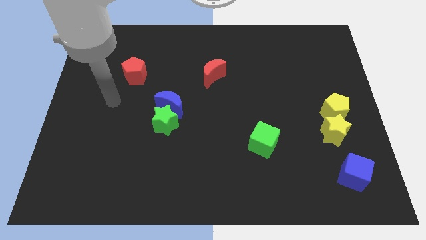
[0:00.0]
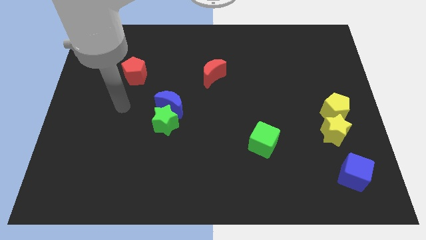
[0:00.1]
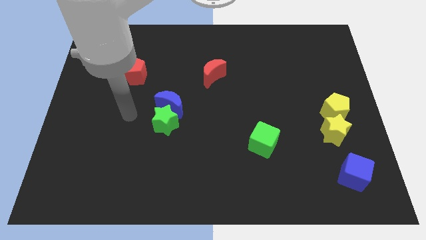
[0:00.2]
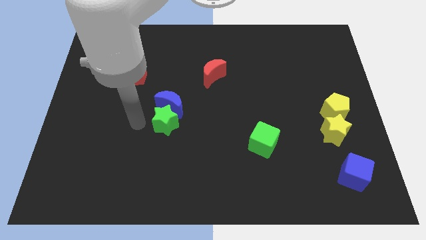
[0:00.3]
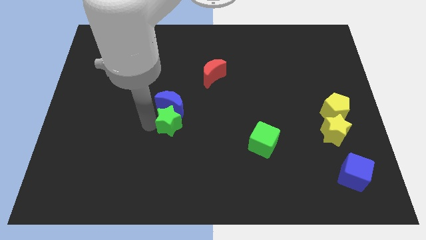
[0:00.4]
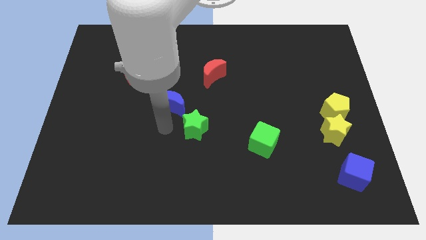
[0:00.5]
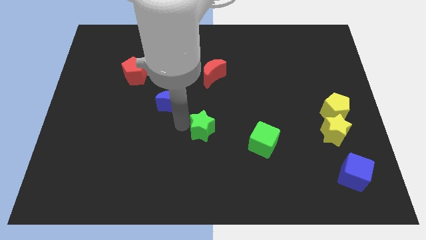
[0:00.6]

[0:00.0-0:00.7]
pull the blue moon apart from the green star

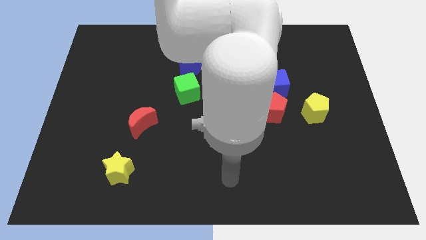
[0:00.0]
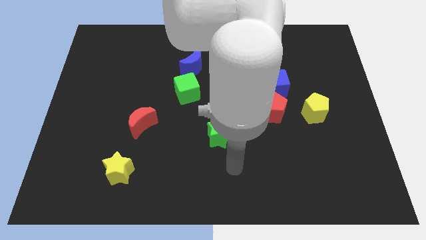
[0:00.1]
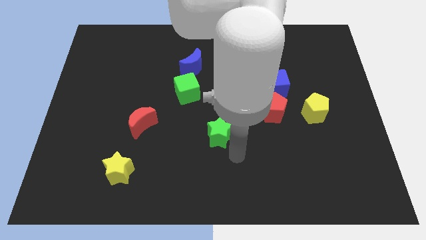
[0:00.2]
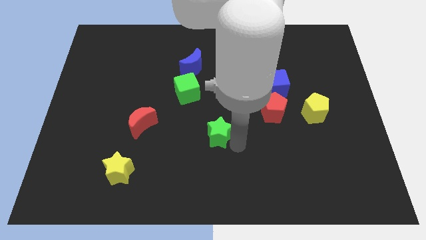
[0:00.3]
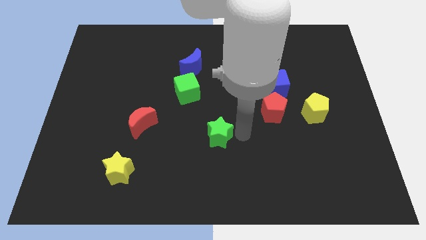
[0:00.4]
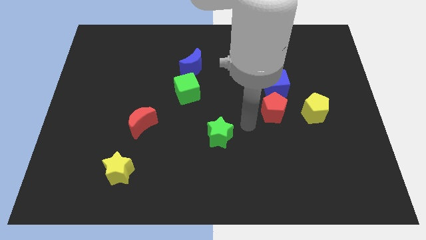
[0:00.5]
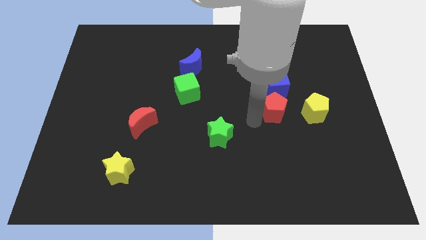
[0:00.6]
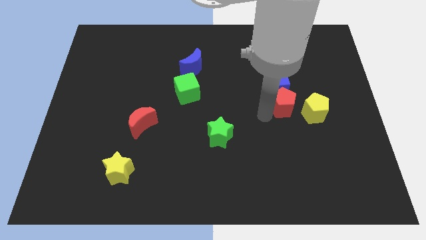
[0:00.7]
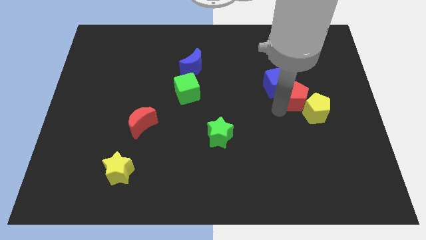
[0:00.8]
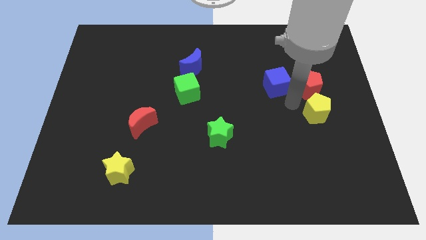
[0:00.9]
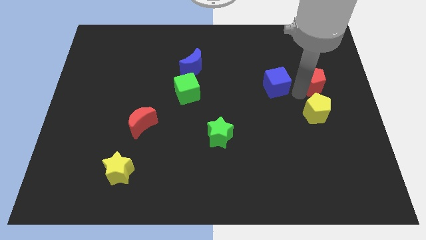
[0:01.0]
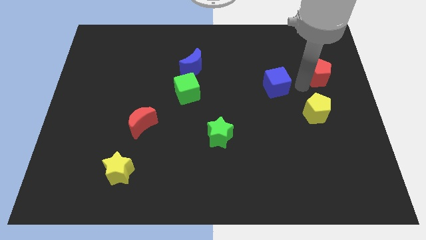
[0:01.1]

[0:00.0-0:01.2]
pull the blue cube apart from the red pentagon

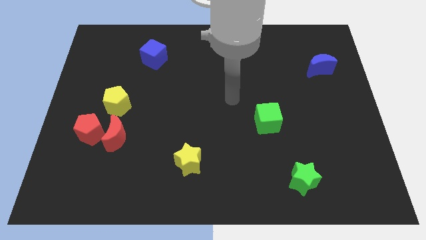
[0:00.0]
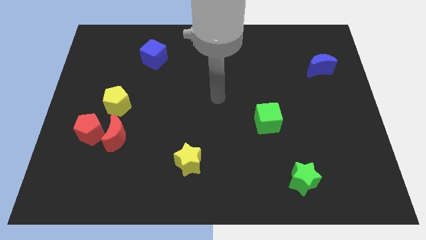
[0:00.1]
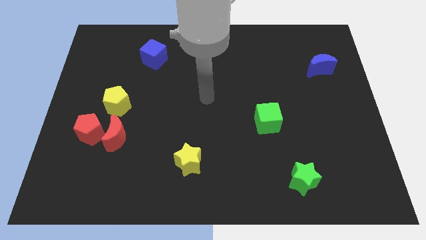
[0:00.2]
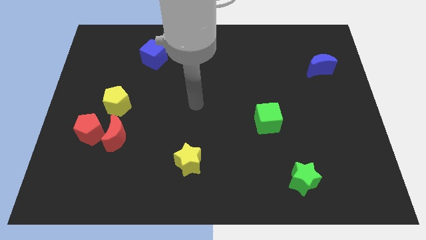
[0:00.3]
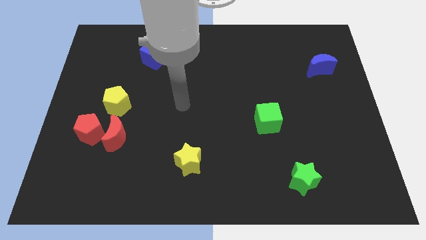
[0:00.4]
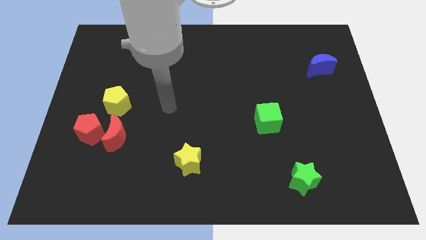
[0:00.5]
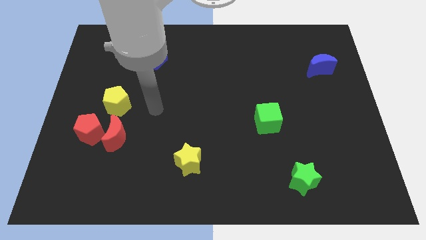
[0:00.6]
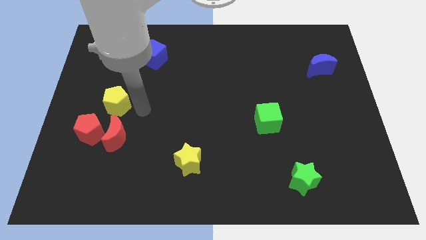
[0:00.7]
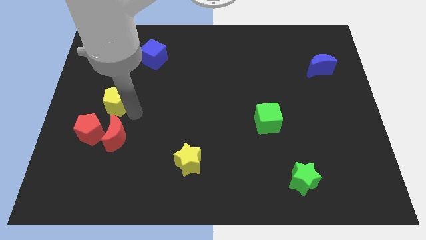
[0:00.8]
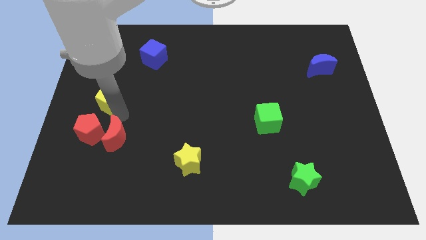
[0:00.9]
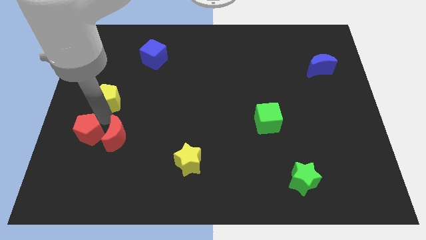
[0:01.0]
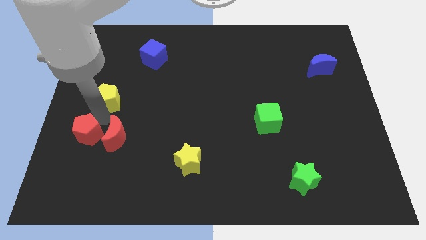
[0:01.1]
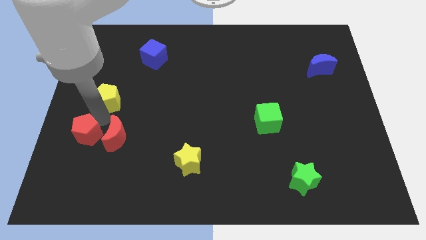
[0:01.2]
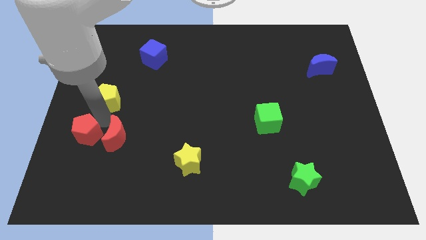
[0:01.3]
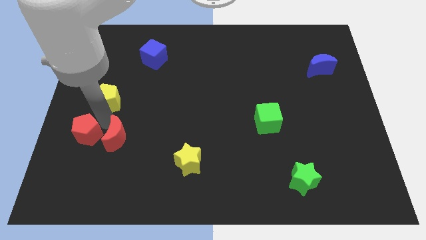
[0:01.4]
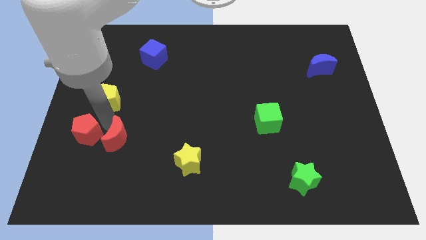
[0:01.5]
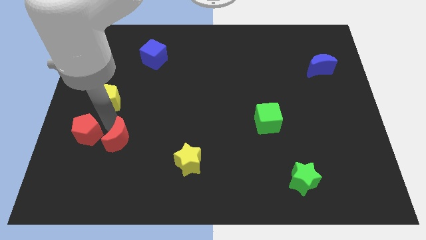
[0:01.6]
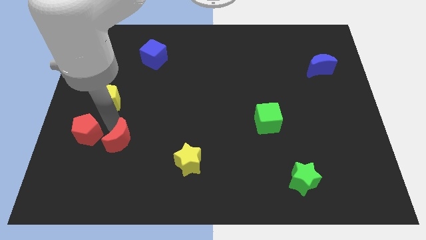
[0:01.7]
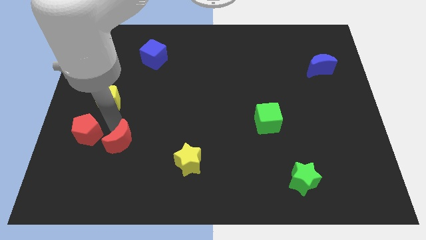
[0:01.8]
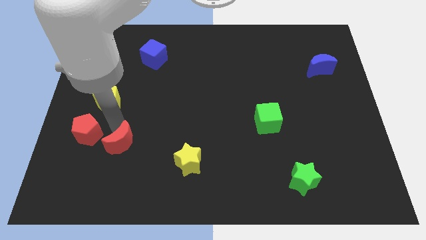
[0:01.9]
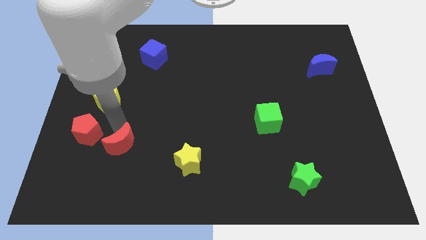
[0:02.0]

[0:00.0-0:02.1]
pull the red moon apart from the red pentagon and yellow pentagon

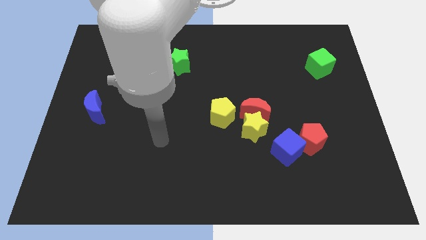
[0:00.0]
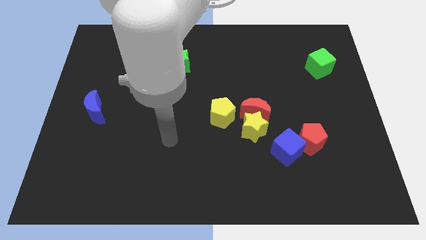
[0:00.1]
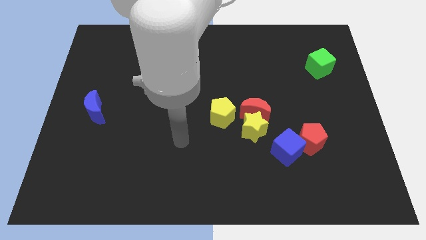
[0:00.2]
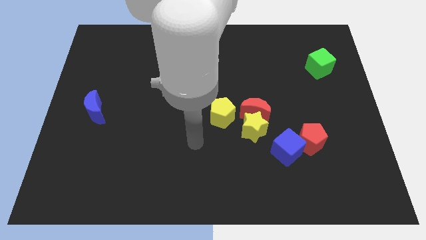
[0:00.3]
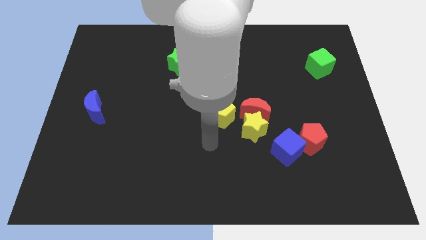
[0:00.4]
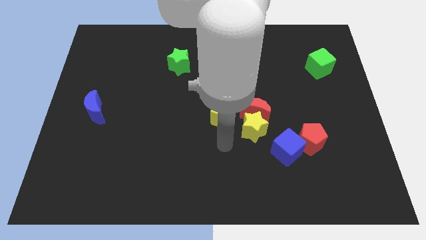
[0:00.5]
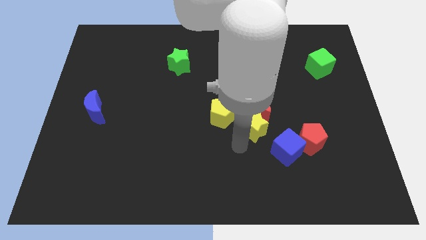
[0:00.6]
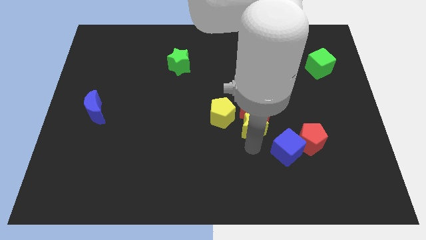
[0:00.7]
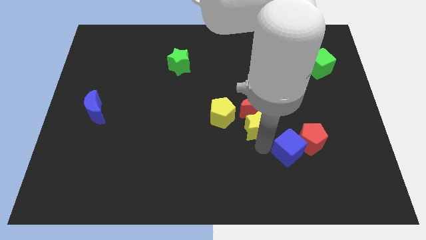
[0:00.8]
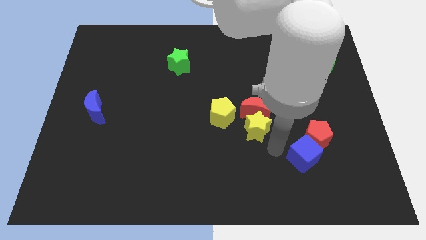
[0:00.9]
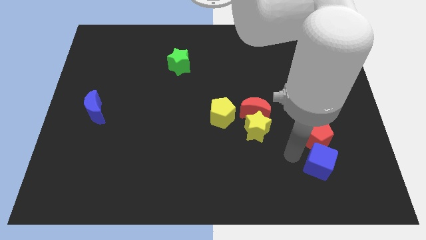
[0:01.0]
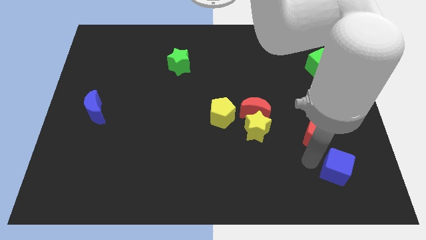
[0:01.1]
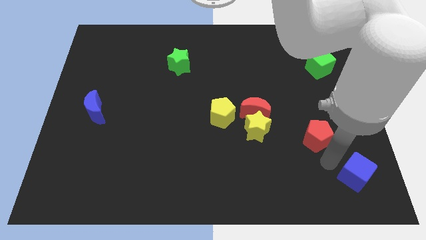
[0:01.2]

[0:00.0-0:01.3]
move the red pentagon away from the blue cube

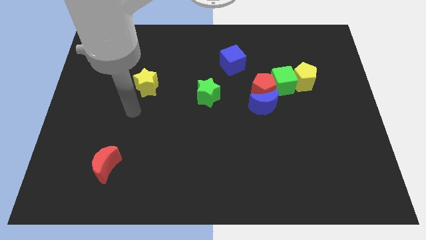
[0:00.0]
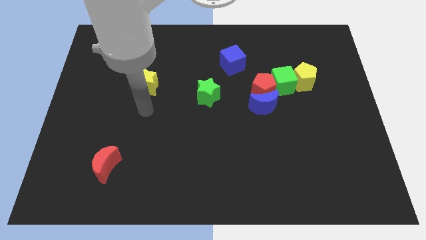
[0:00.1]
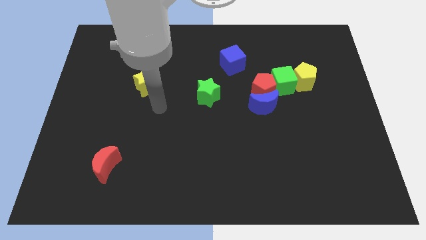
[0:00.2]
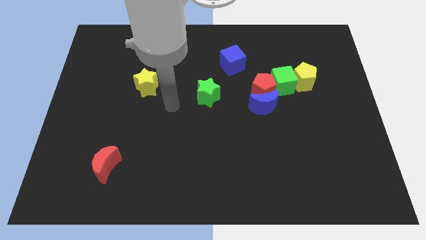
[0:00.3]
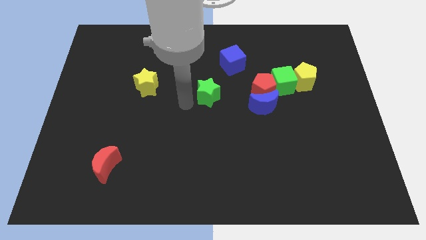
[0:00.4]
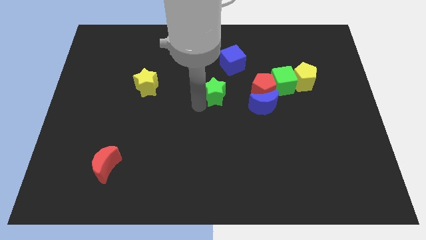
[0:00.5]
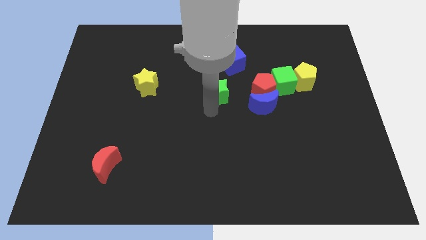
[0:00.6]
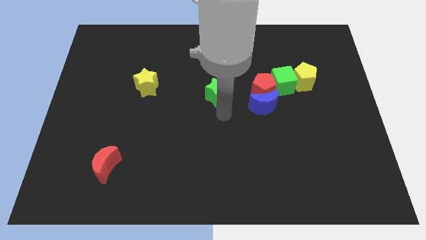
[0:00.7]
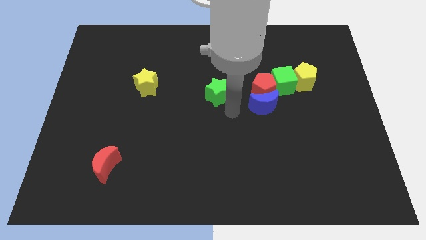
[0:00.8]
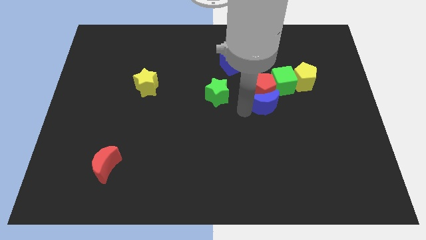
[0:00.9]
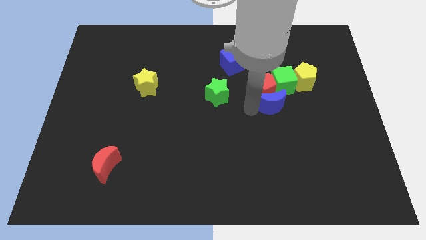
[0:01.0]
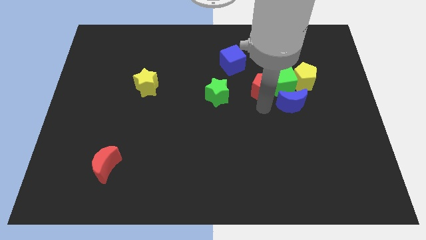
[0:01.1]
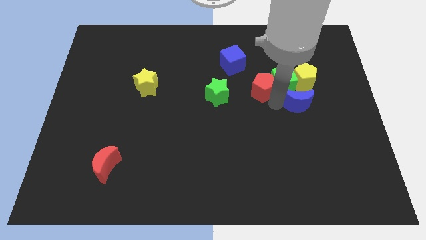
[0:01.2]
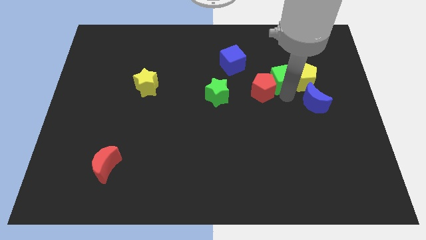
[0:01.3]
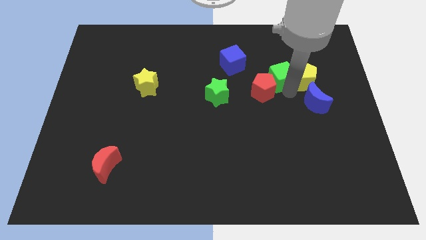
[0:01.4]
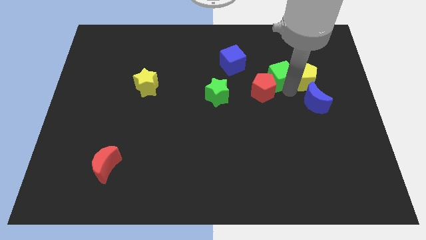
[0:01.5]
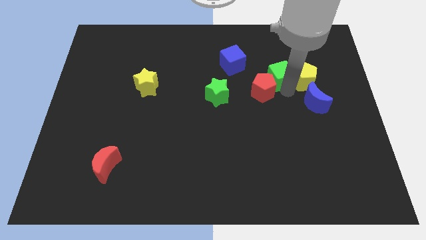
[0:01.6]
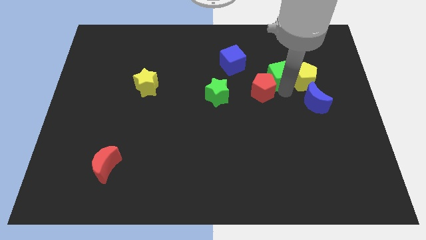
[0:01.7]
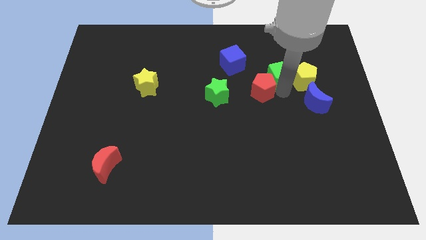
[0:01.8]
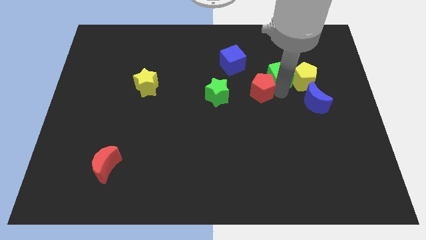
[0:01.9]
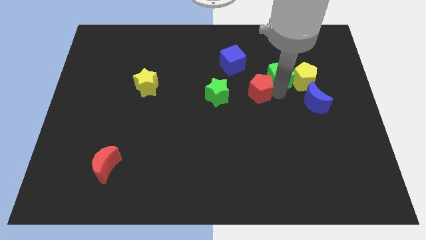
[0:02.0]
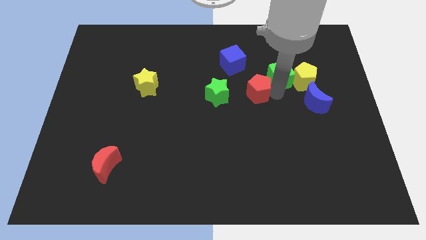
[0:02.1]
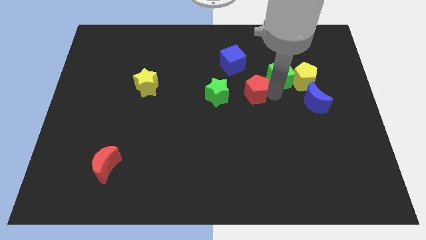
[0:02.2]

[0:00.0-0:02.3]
pull the red pentagon apart from the blue moon and green cube

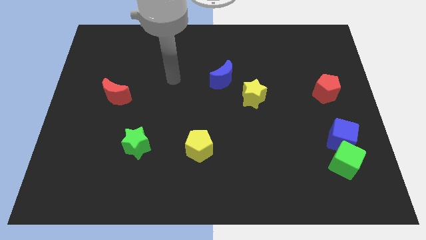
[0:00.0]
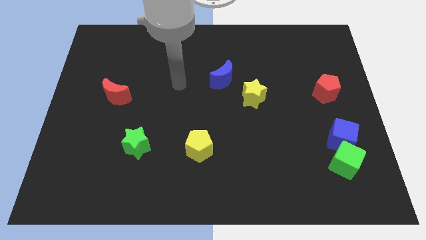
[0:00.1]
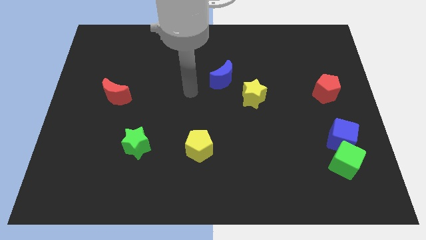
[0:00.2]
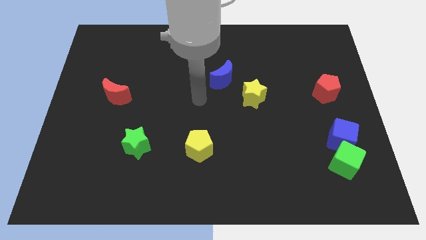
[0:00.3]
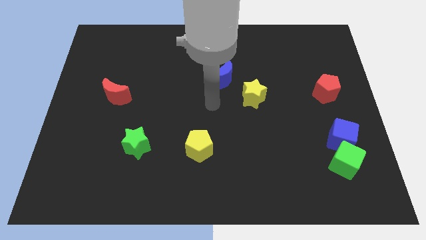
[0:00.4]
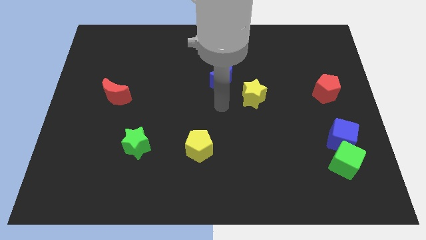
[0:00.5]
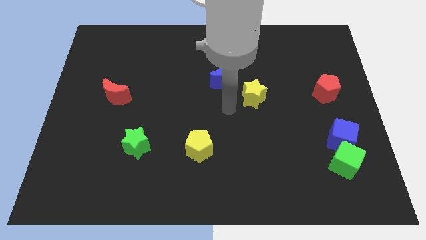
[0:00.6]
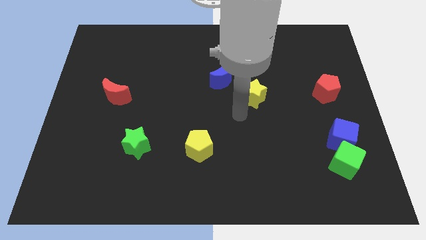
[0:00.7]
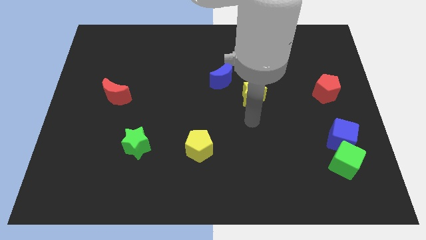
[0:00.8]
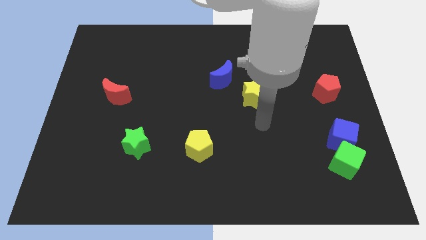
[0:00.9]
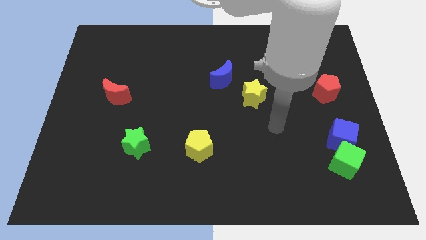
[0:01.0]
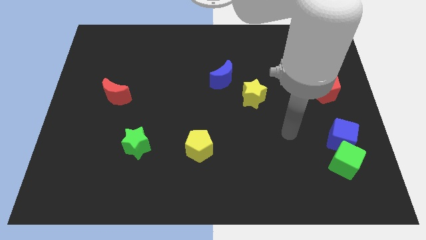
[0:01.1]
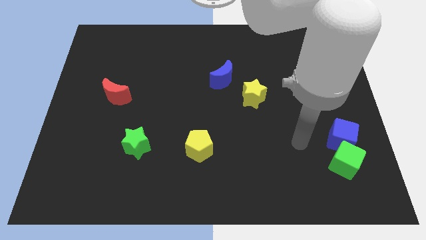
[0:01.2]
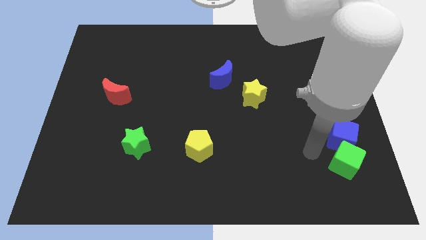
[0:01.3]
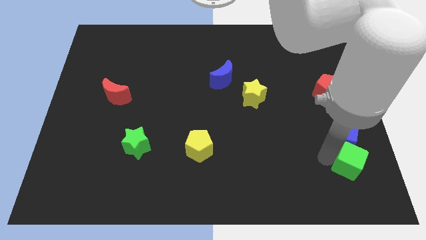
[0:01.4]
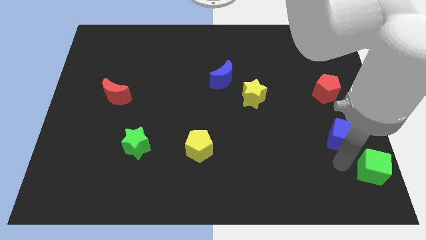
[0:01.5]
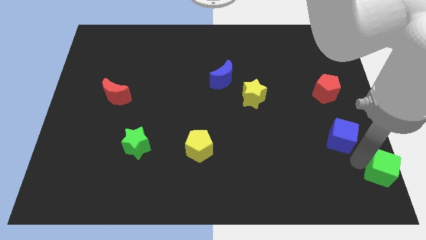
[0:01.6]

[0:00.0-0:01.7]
pull the blue cube apart from the green cube
